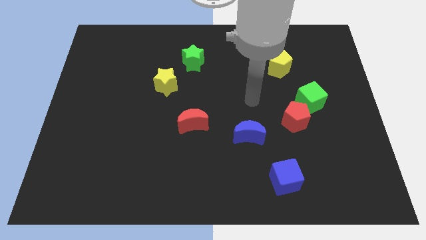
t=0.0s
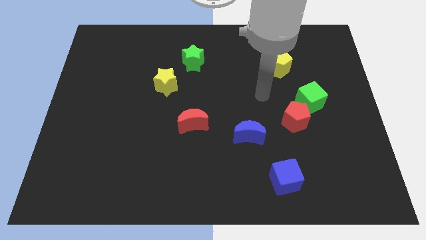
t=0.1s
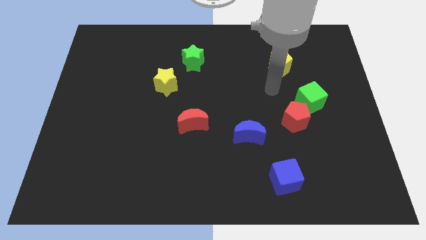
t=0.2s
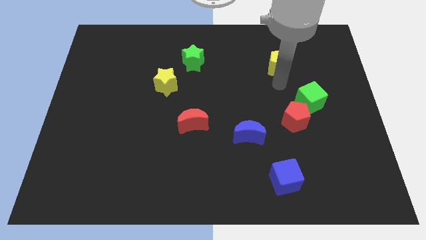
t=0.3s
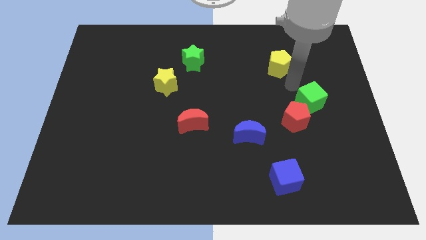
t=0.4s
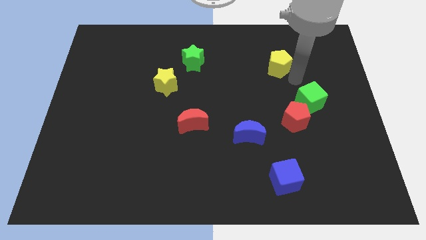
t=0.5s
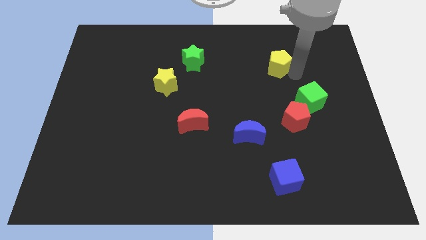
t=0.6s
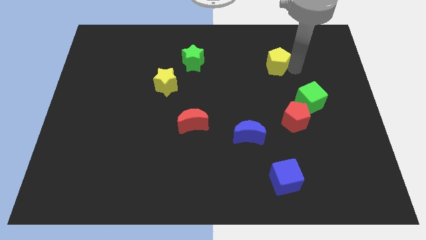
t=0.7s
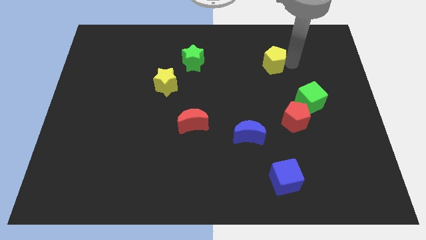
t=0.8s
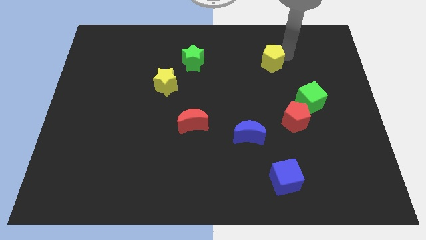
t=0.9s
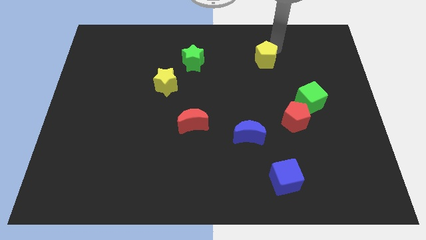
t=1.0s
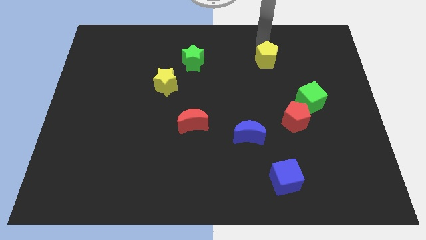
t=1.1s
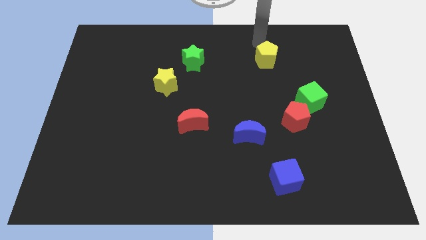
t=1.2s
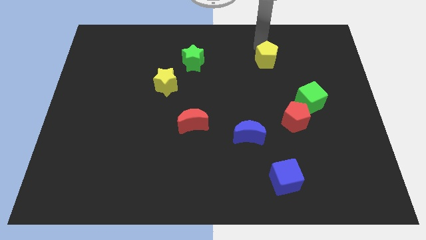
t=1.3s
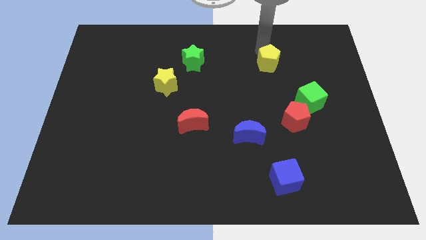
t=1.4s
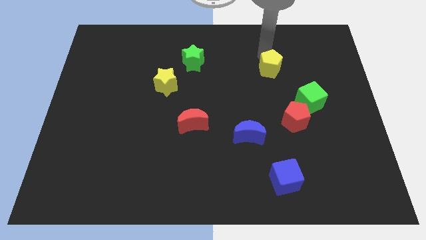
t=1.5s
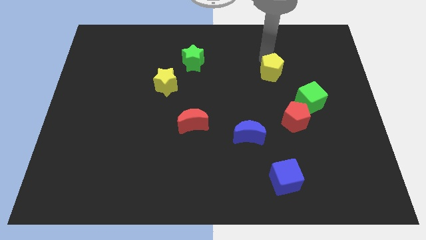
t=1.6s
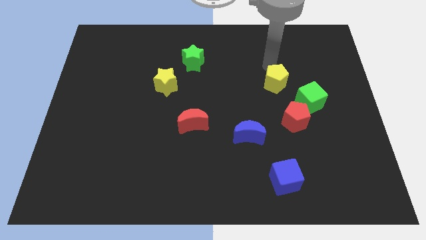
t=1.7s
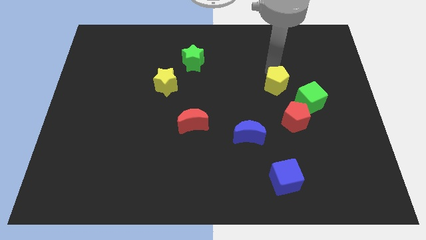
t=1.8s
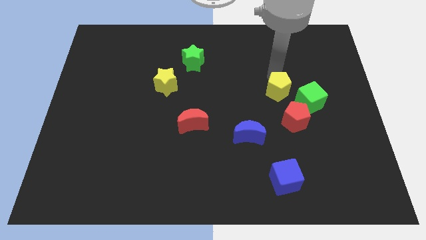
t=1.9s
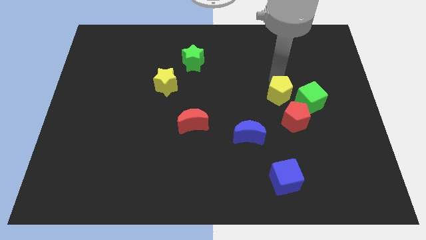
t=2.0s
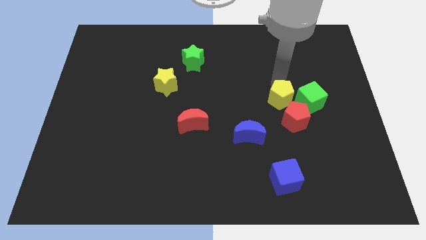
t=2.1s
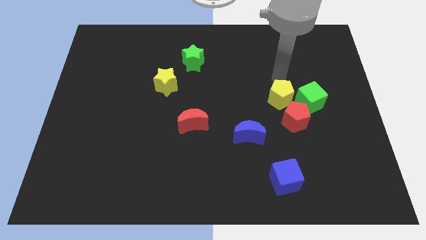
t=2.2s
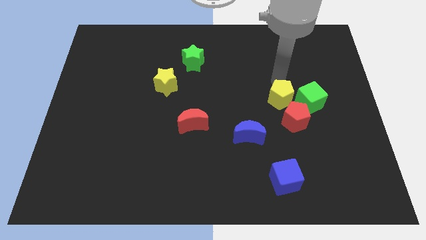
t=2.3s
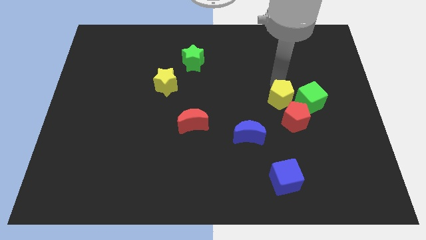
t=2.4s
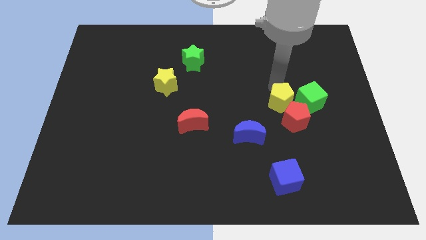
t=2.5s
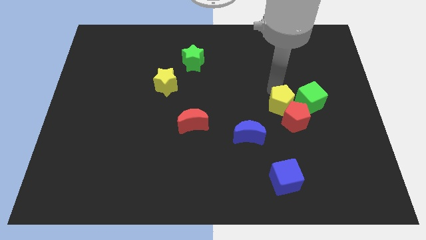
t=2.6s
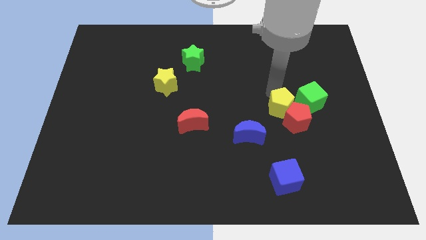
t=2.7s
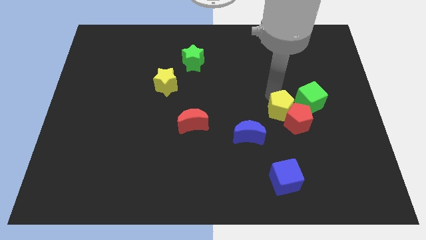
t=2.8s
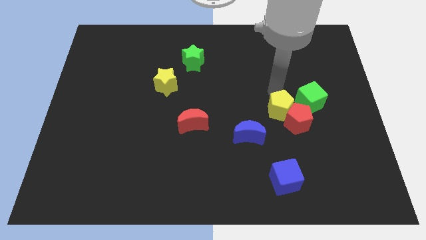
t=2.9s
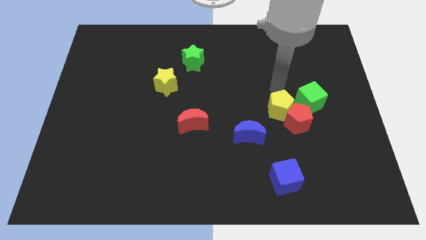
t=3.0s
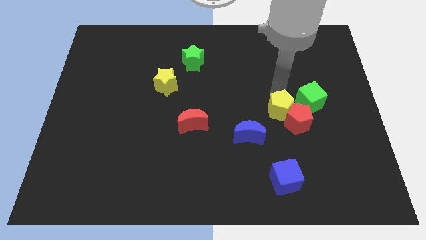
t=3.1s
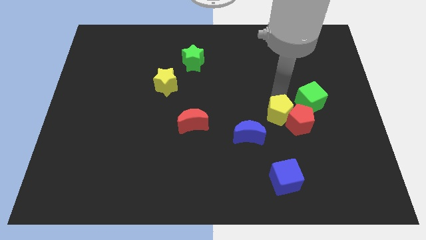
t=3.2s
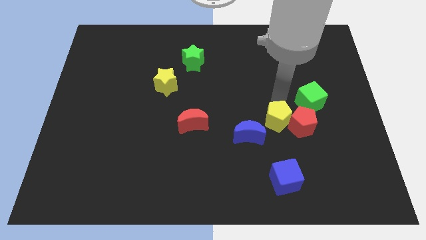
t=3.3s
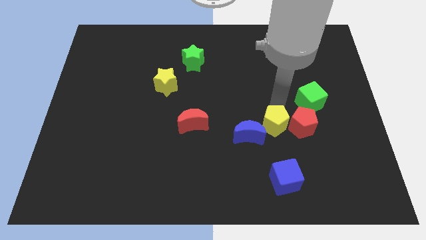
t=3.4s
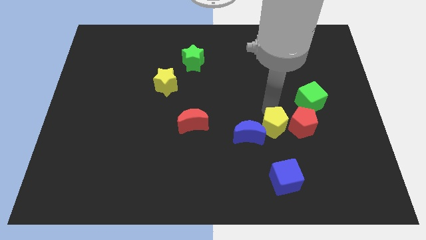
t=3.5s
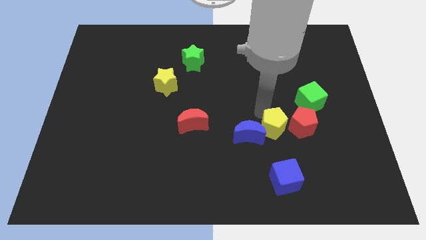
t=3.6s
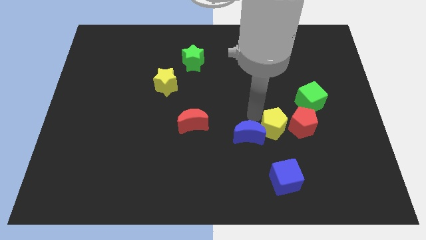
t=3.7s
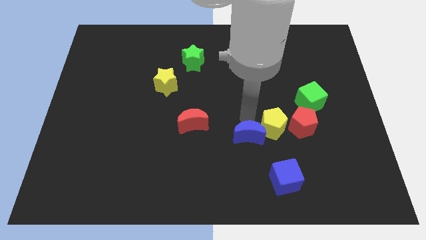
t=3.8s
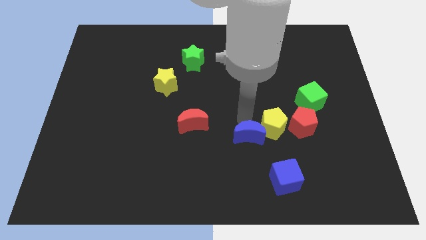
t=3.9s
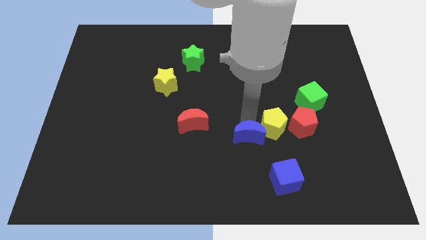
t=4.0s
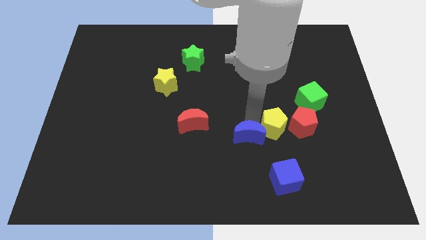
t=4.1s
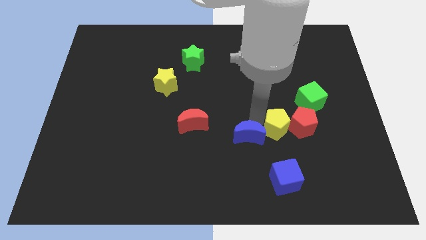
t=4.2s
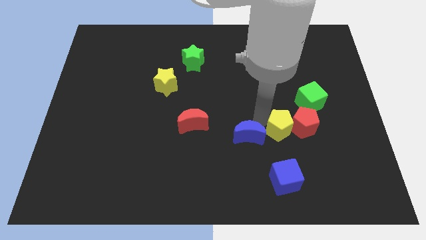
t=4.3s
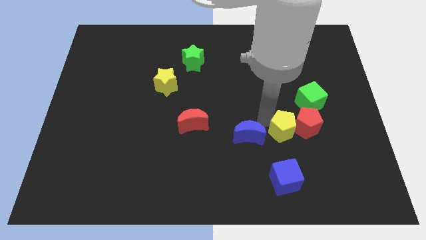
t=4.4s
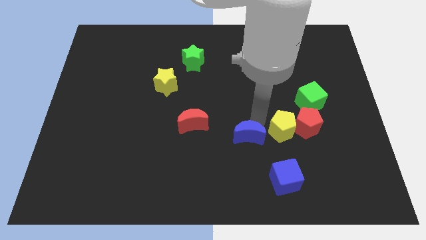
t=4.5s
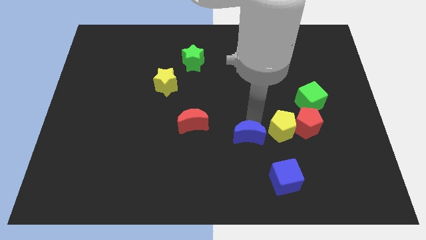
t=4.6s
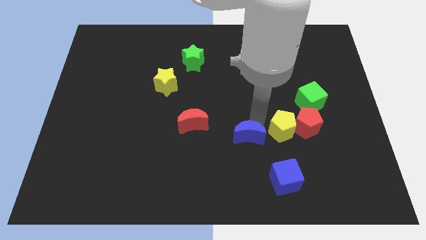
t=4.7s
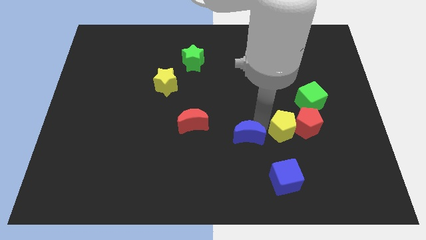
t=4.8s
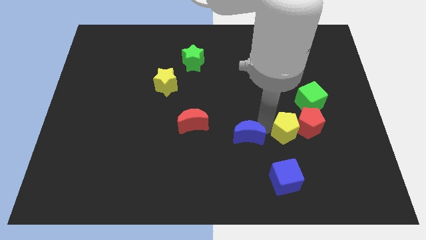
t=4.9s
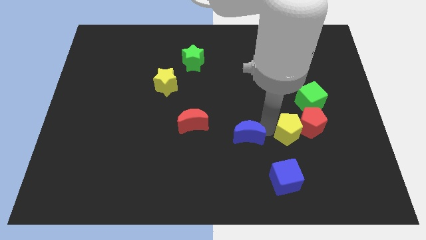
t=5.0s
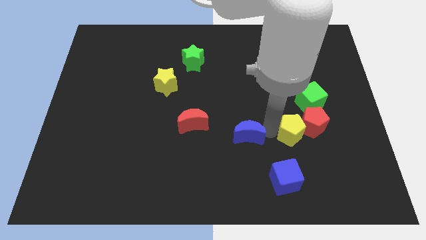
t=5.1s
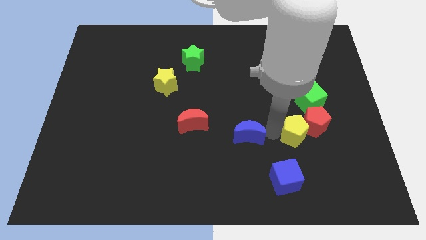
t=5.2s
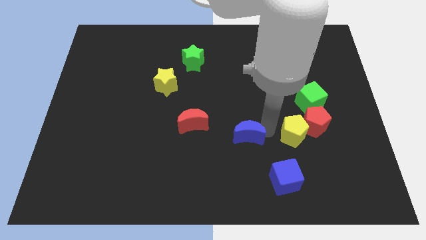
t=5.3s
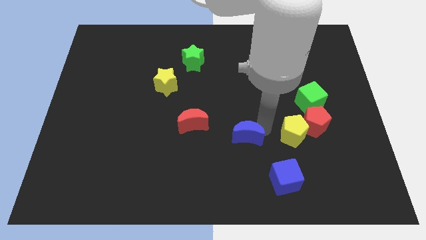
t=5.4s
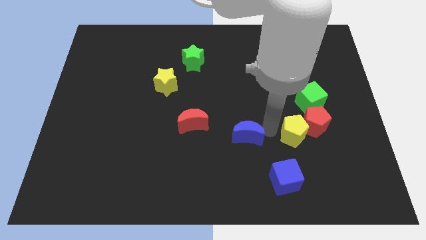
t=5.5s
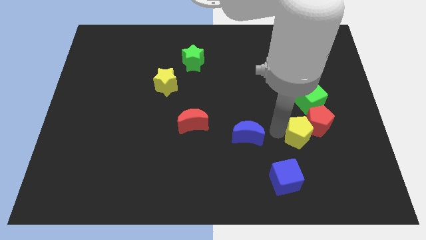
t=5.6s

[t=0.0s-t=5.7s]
put the yellow pentagon below the green cube

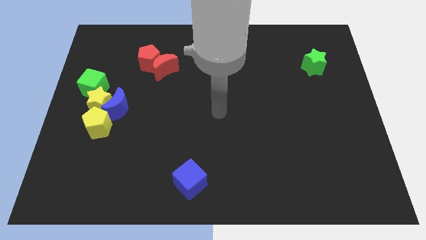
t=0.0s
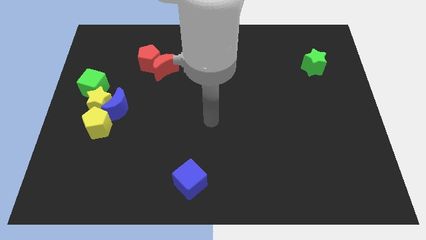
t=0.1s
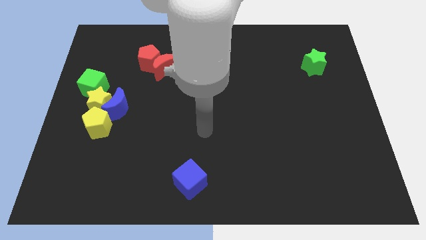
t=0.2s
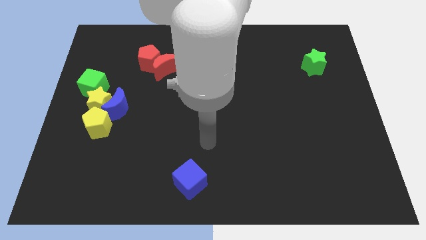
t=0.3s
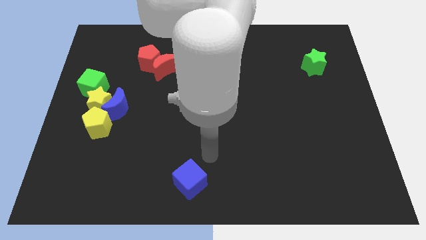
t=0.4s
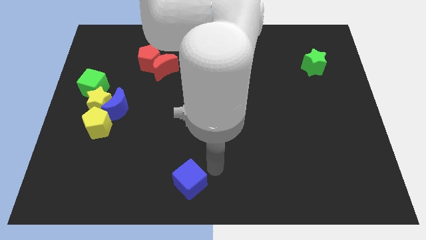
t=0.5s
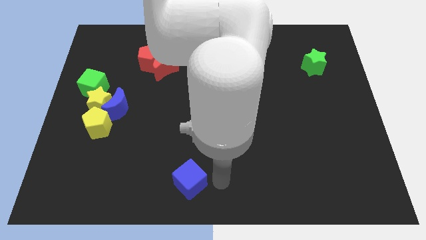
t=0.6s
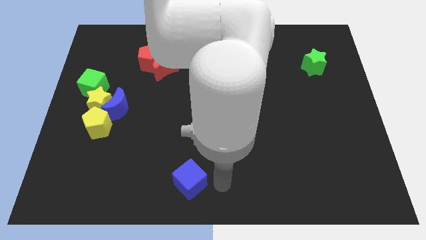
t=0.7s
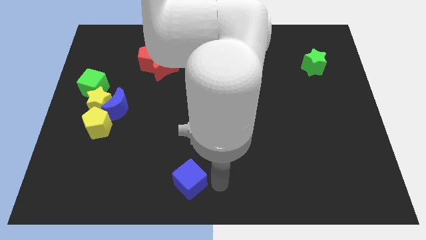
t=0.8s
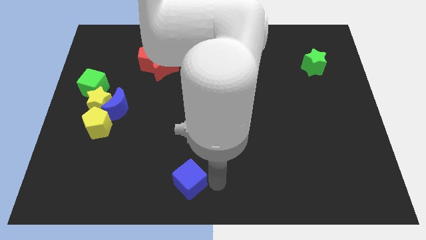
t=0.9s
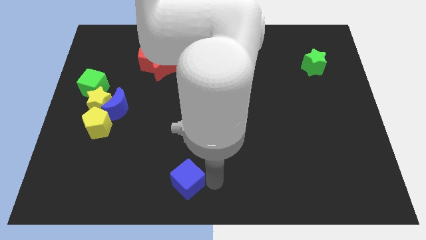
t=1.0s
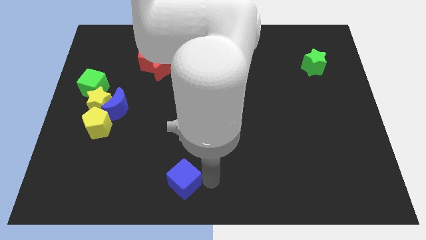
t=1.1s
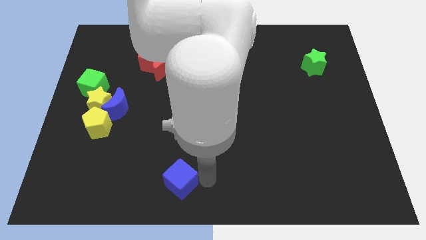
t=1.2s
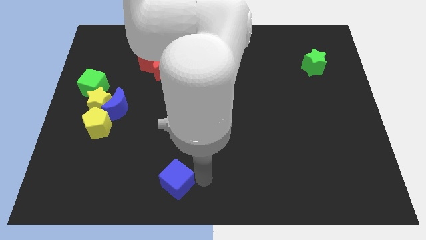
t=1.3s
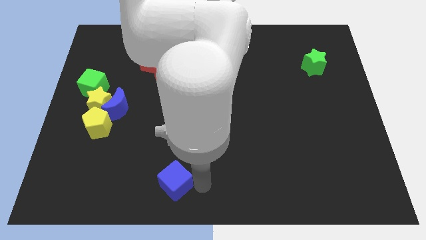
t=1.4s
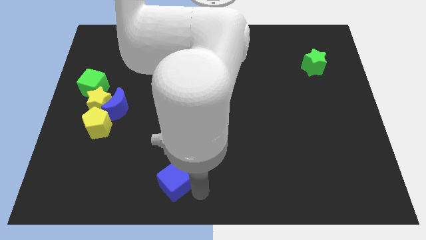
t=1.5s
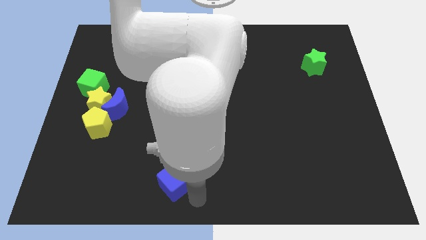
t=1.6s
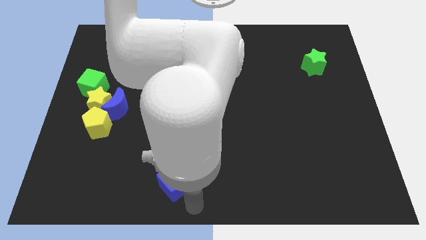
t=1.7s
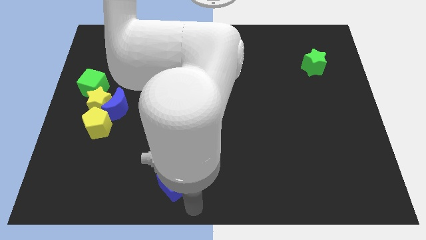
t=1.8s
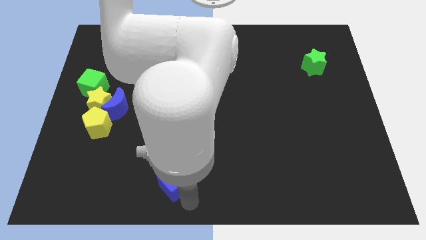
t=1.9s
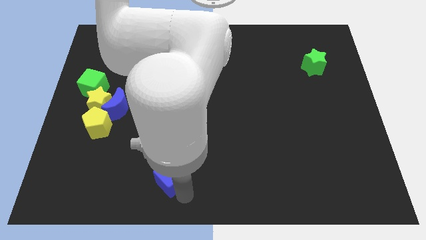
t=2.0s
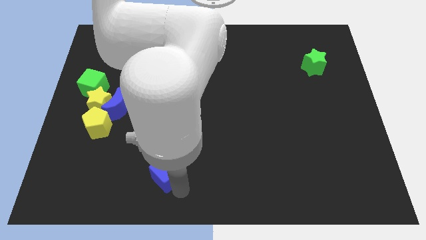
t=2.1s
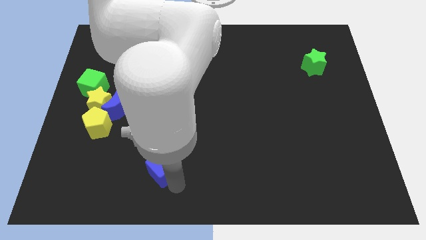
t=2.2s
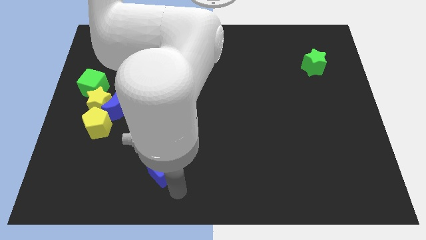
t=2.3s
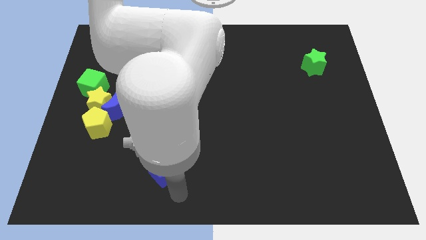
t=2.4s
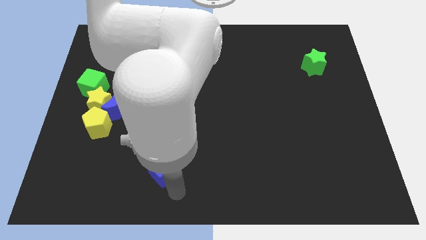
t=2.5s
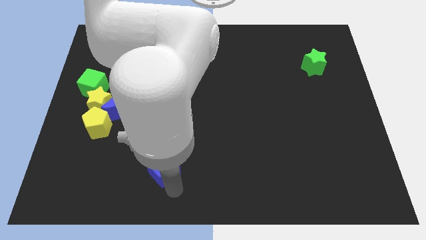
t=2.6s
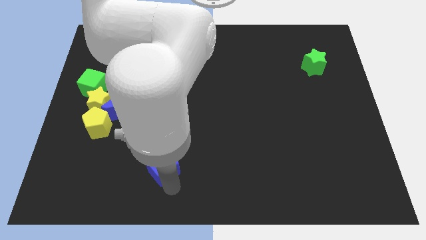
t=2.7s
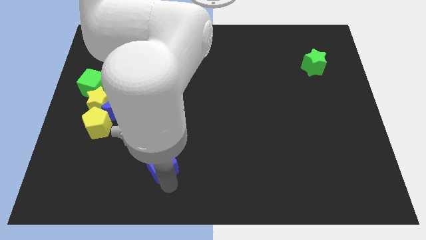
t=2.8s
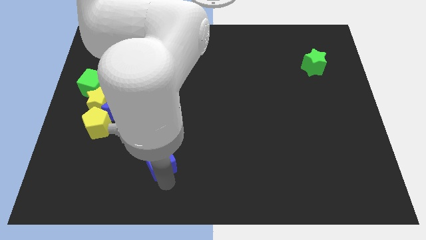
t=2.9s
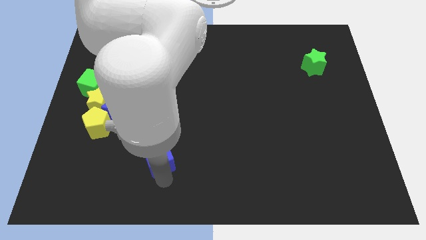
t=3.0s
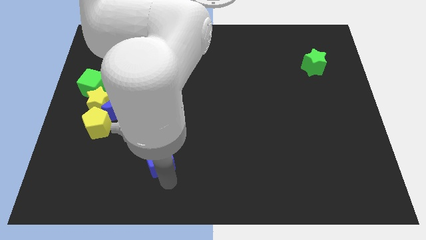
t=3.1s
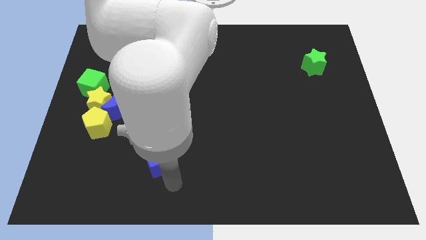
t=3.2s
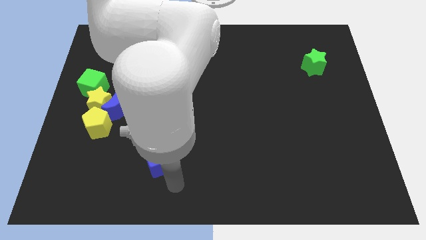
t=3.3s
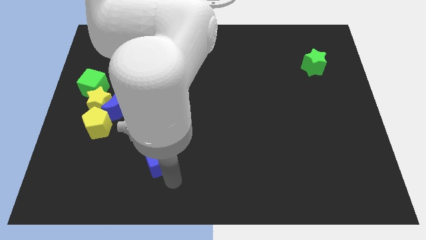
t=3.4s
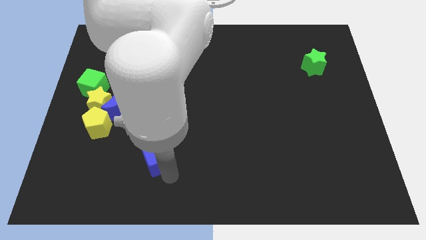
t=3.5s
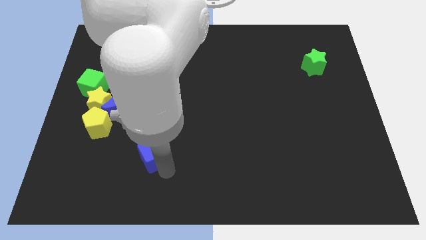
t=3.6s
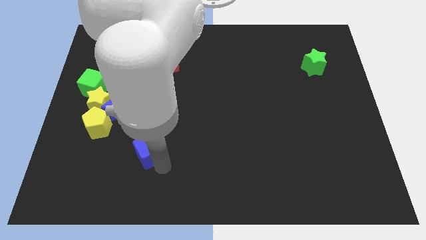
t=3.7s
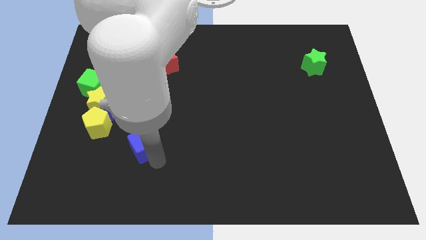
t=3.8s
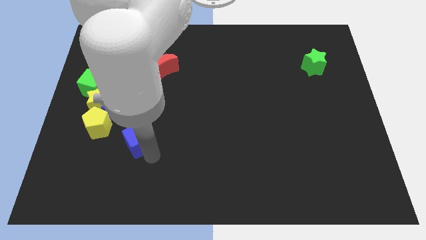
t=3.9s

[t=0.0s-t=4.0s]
move the blue cube diagonally down and to the right of the blue moon
